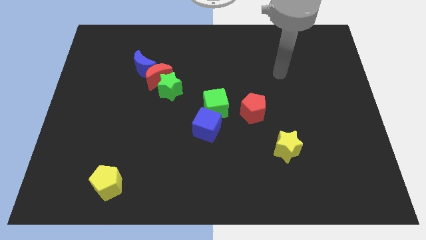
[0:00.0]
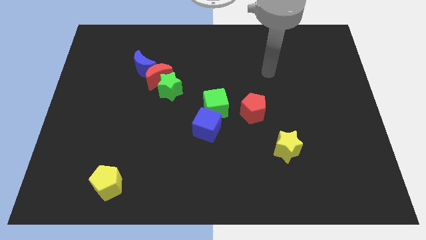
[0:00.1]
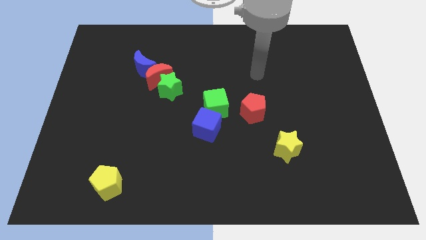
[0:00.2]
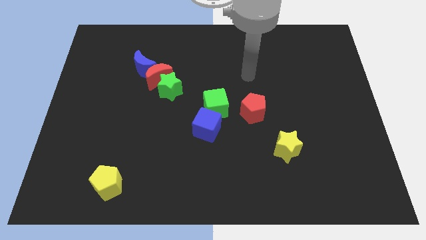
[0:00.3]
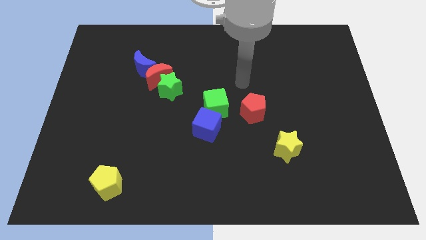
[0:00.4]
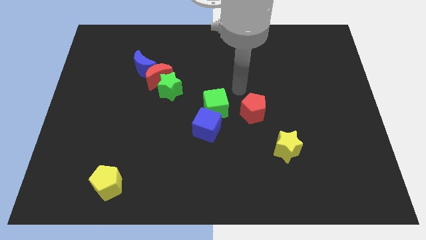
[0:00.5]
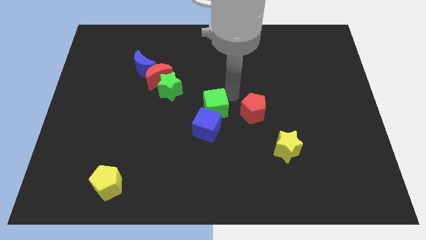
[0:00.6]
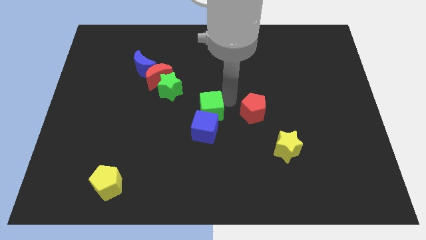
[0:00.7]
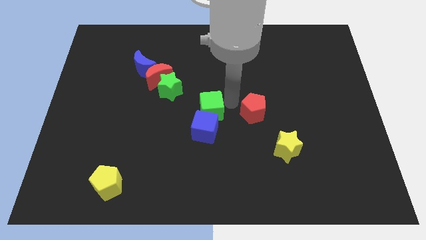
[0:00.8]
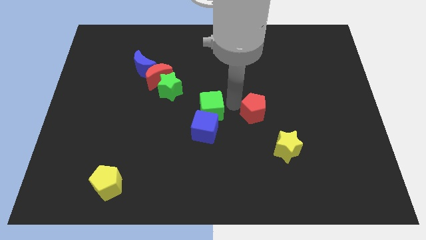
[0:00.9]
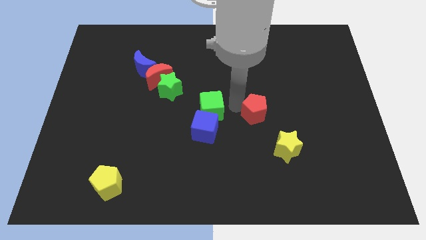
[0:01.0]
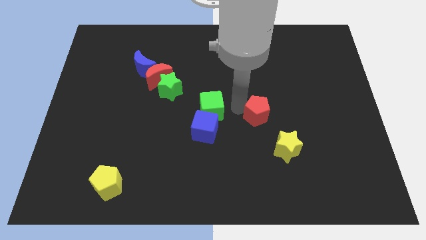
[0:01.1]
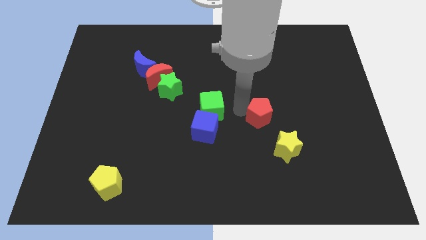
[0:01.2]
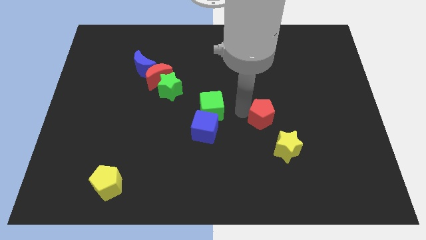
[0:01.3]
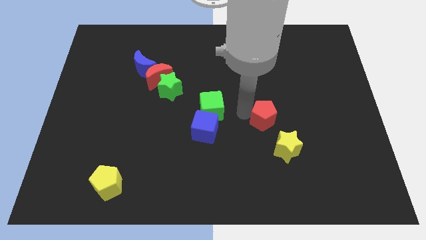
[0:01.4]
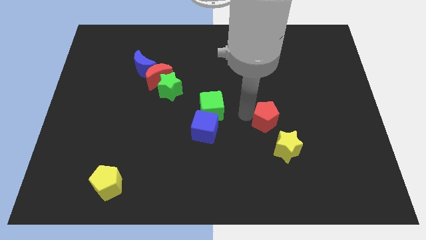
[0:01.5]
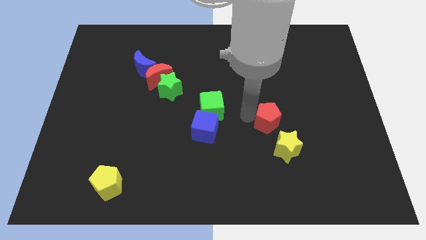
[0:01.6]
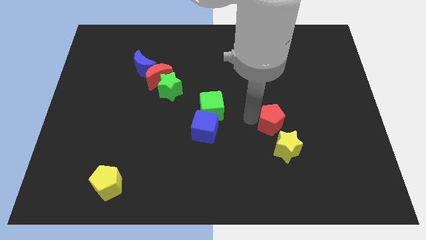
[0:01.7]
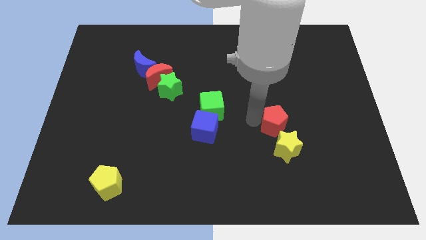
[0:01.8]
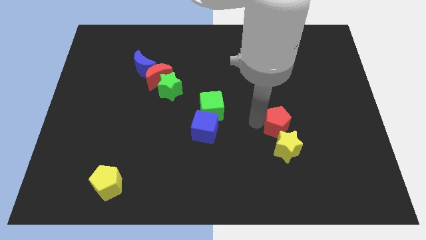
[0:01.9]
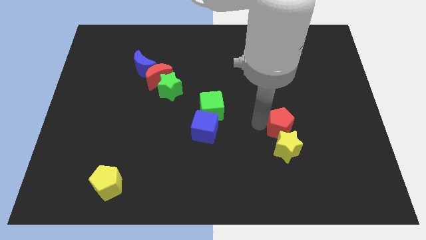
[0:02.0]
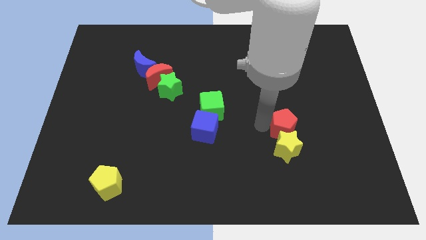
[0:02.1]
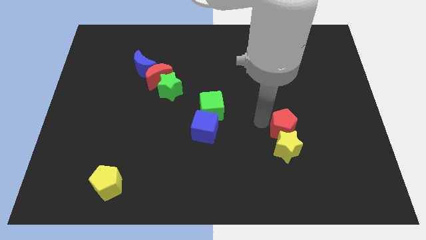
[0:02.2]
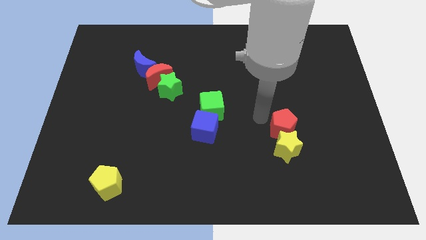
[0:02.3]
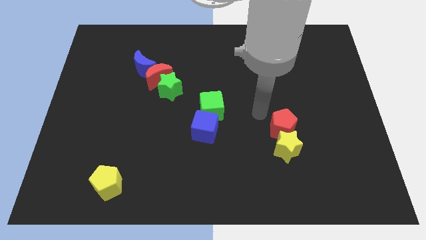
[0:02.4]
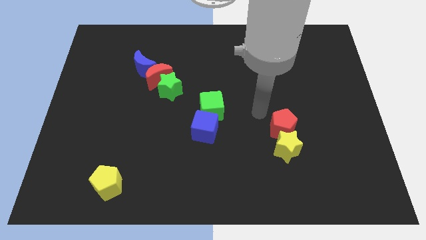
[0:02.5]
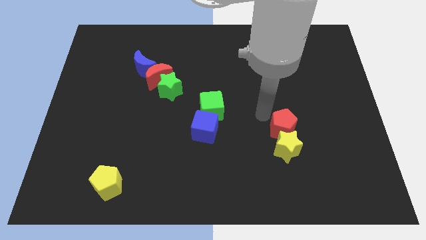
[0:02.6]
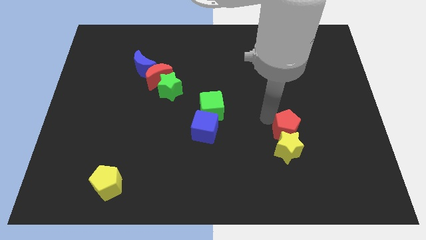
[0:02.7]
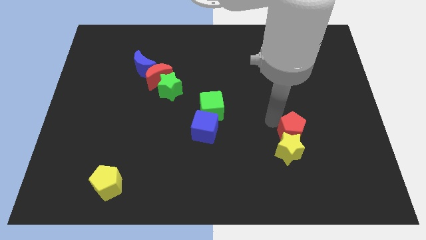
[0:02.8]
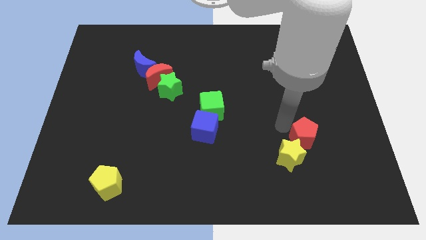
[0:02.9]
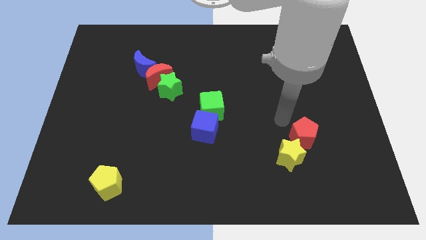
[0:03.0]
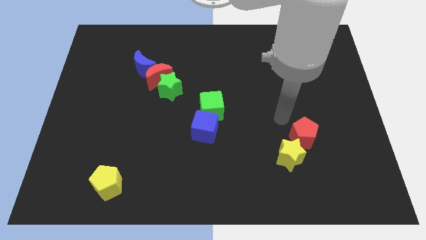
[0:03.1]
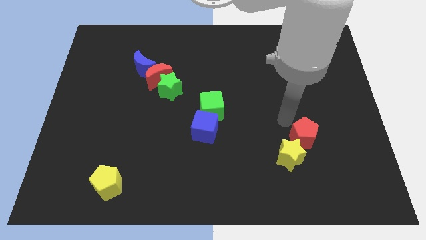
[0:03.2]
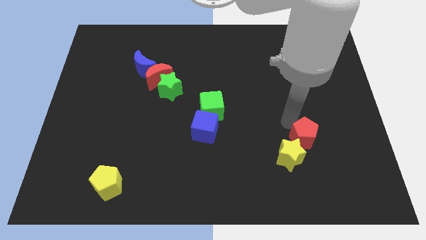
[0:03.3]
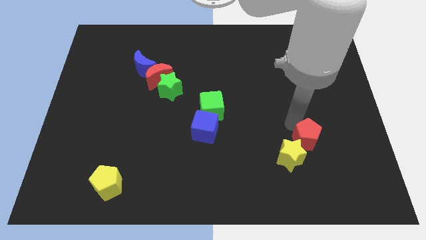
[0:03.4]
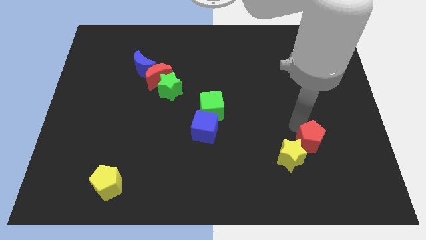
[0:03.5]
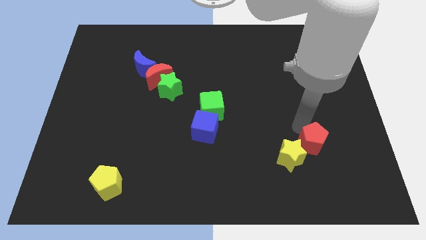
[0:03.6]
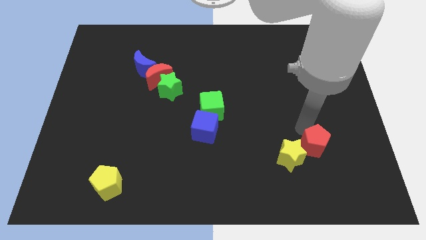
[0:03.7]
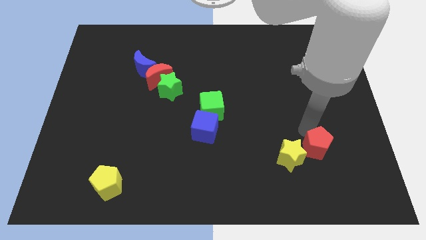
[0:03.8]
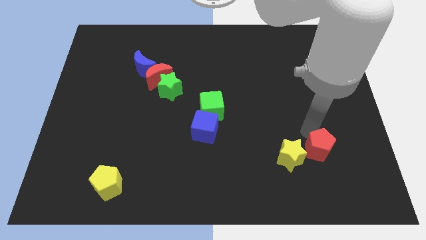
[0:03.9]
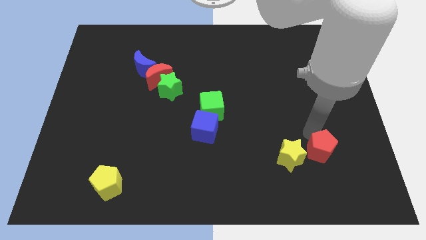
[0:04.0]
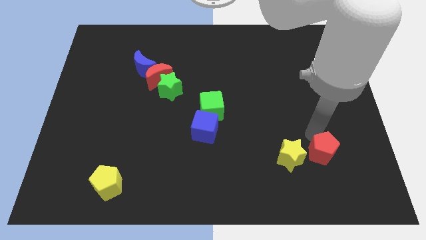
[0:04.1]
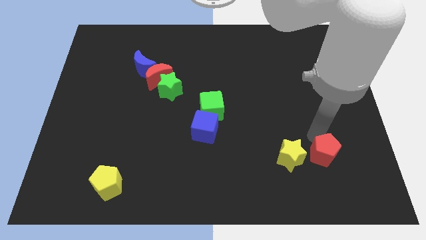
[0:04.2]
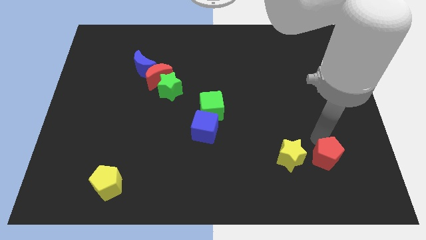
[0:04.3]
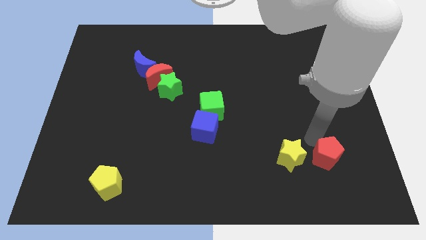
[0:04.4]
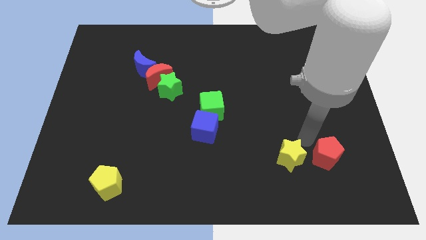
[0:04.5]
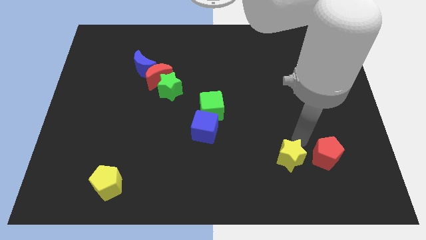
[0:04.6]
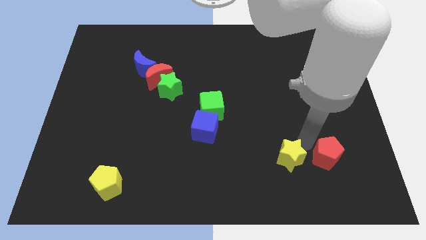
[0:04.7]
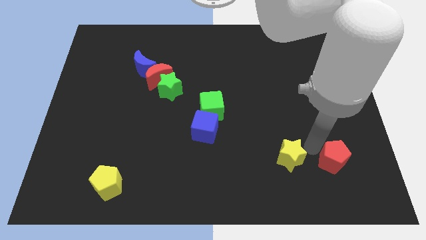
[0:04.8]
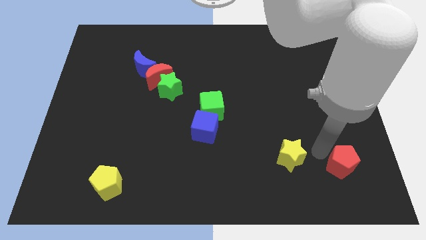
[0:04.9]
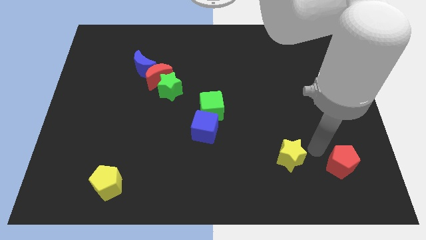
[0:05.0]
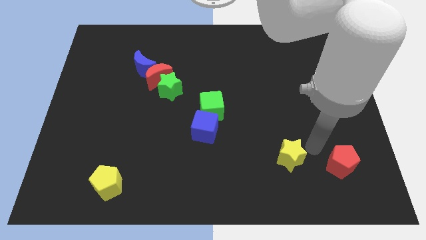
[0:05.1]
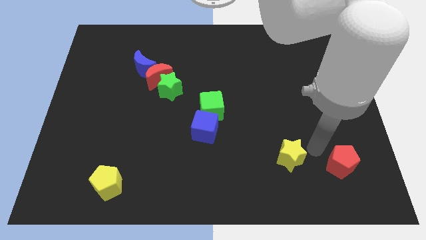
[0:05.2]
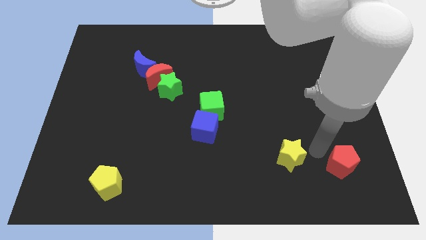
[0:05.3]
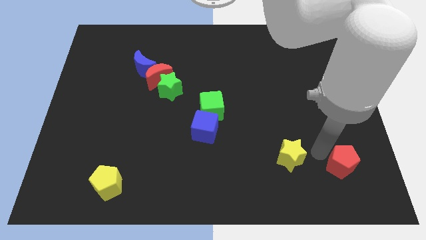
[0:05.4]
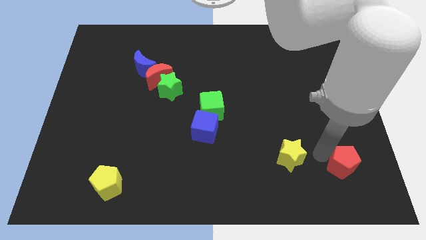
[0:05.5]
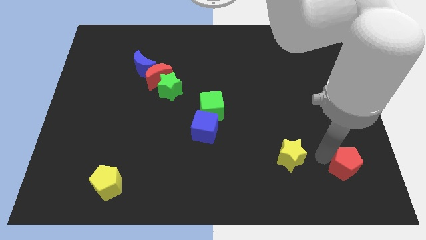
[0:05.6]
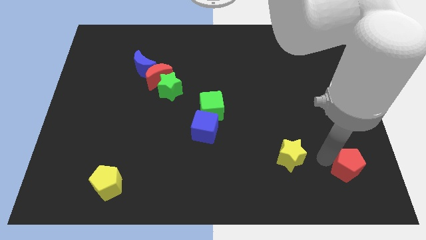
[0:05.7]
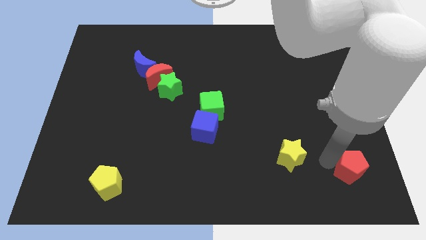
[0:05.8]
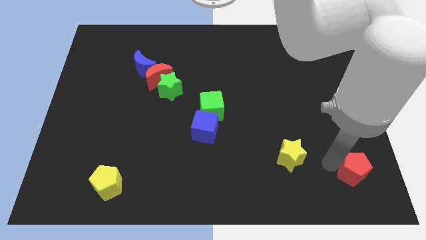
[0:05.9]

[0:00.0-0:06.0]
put the red pentagon to the bottom right
